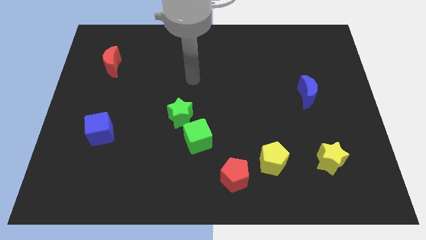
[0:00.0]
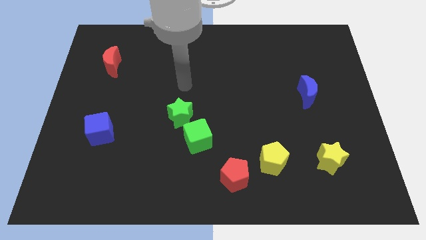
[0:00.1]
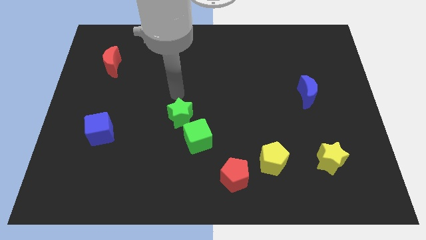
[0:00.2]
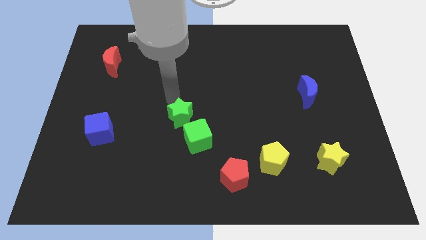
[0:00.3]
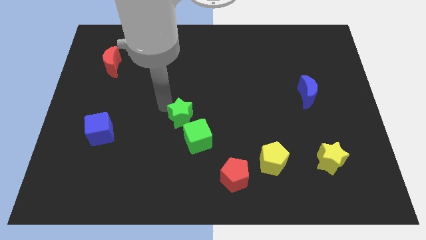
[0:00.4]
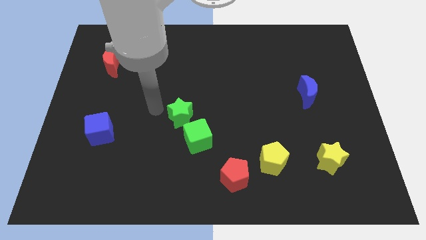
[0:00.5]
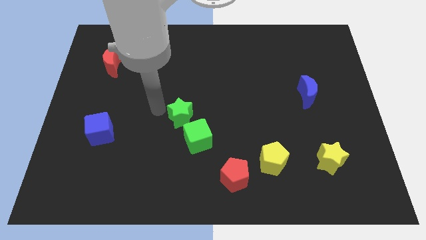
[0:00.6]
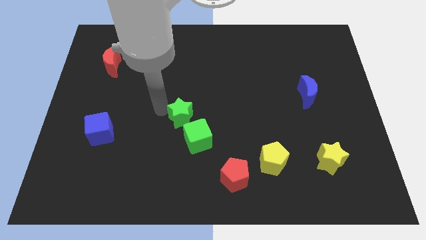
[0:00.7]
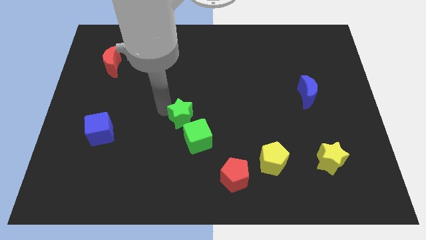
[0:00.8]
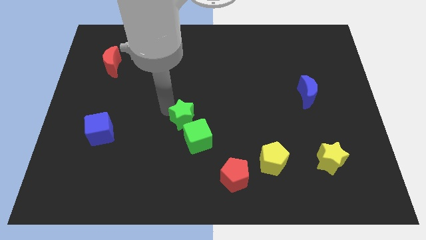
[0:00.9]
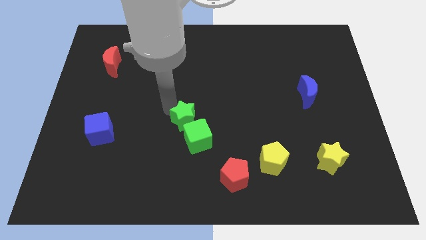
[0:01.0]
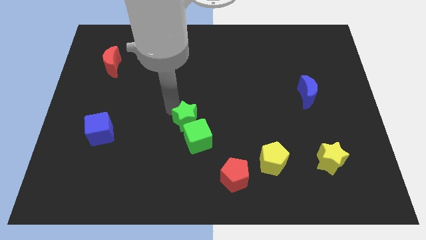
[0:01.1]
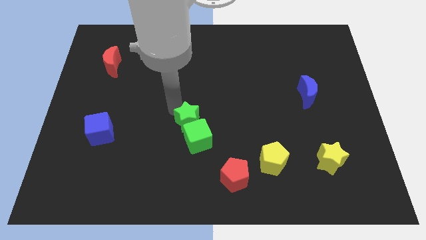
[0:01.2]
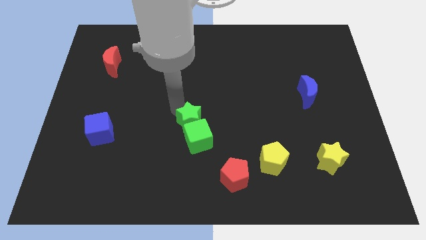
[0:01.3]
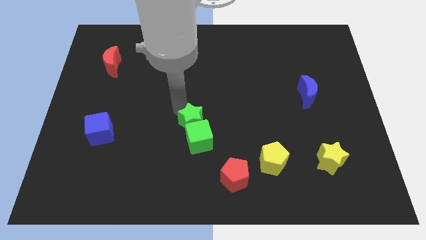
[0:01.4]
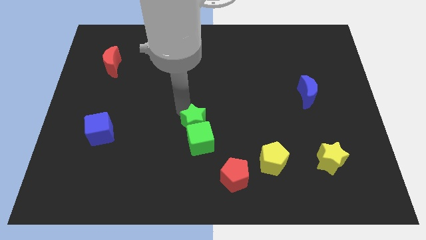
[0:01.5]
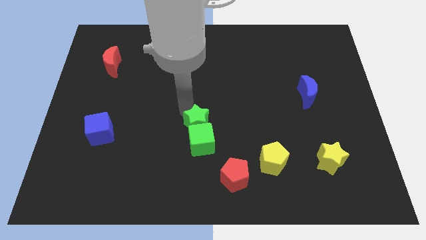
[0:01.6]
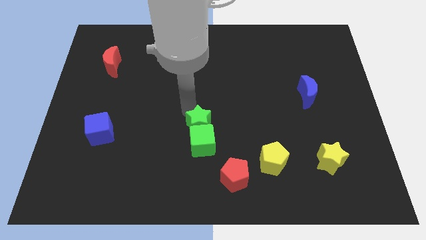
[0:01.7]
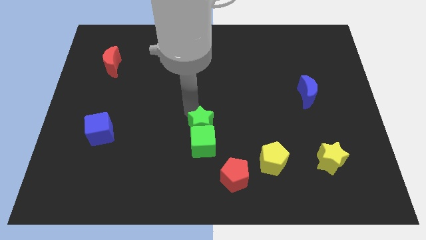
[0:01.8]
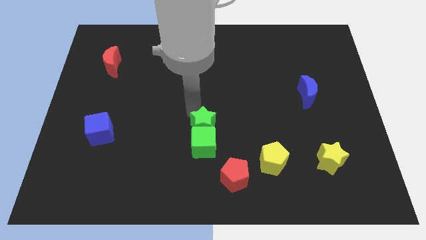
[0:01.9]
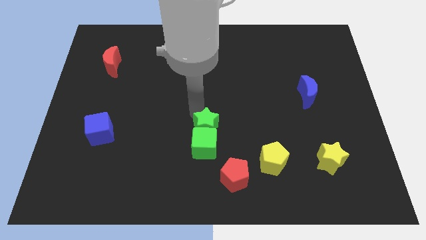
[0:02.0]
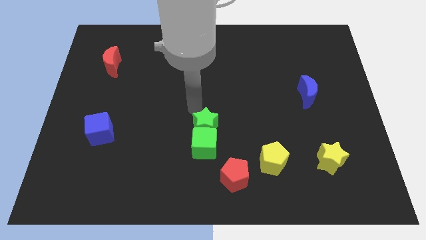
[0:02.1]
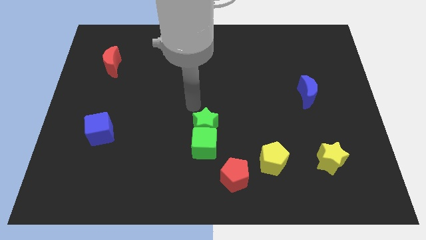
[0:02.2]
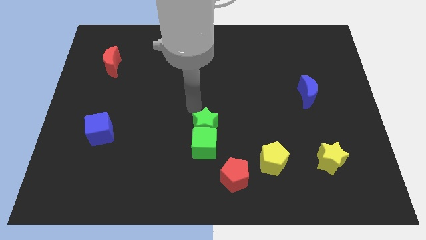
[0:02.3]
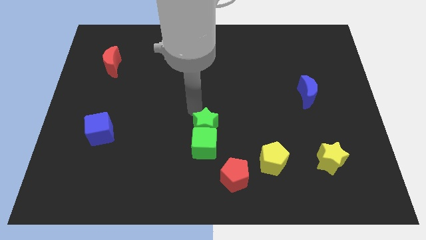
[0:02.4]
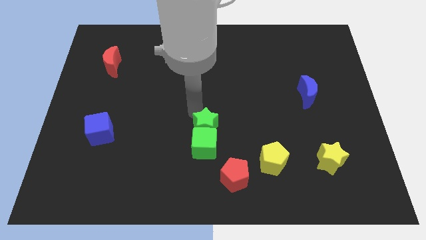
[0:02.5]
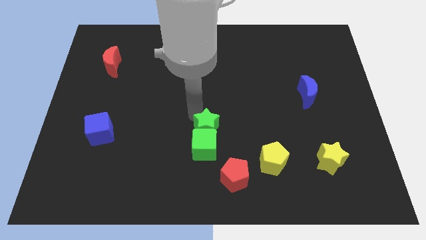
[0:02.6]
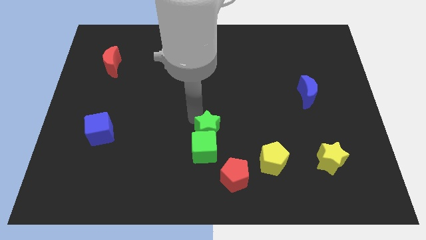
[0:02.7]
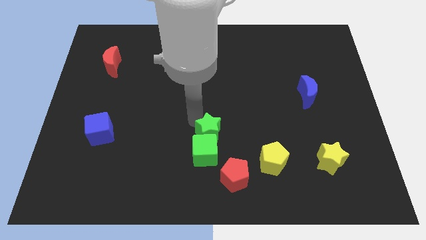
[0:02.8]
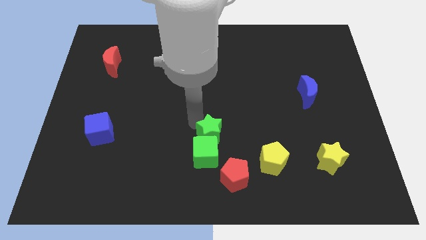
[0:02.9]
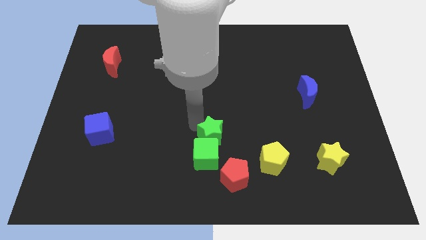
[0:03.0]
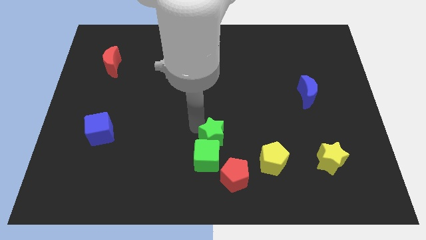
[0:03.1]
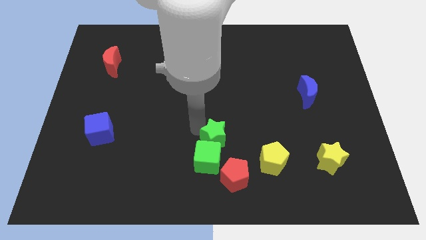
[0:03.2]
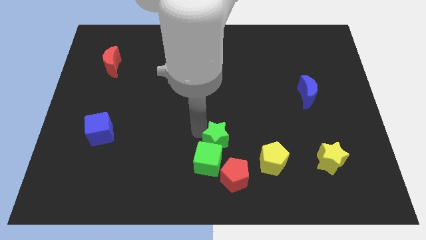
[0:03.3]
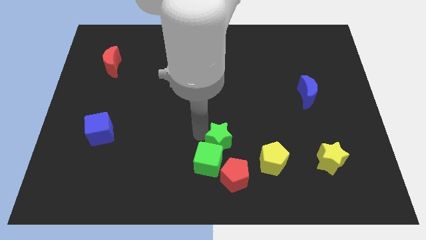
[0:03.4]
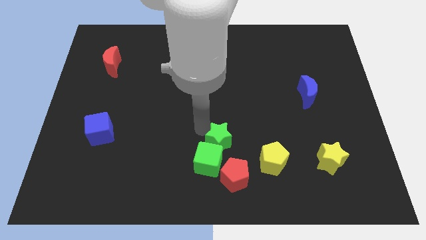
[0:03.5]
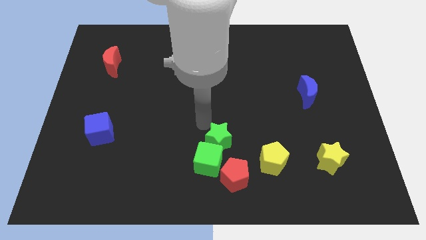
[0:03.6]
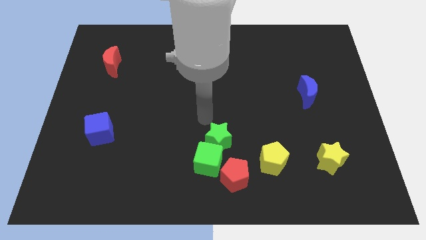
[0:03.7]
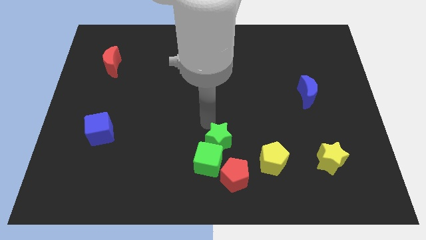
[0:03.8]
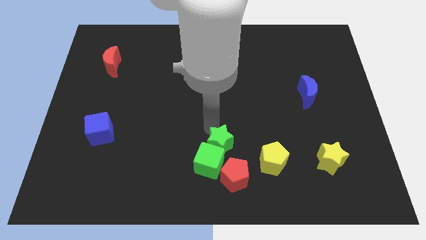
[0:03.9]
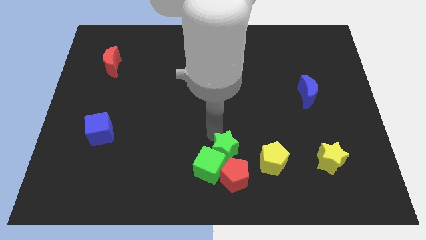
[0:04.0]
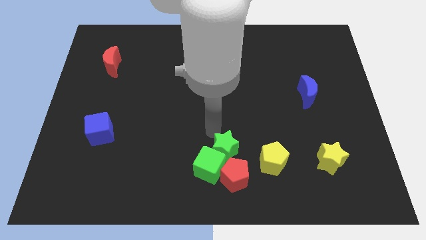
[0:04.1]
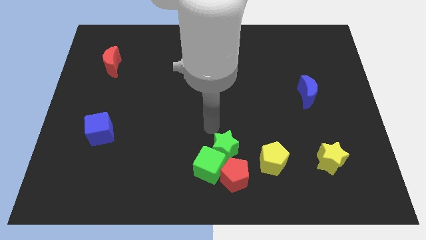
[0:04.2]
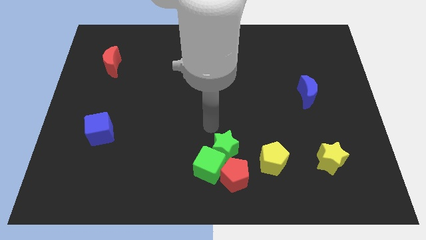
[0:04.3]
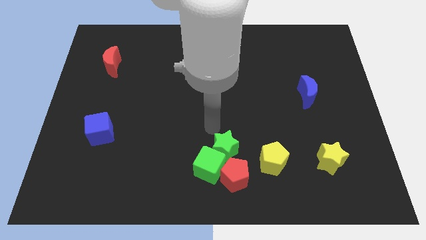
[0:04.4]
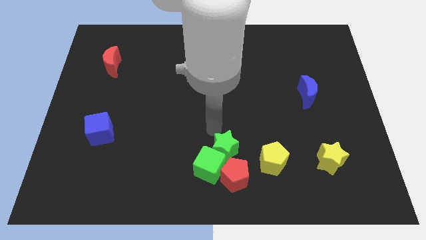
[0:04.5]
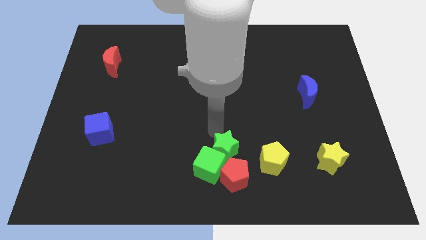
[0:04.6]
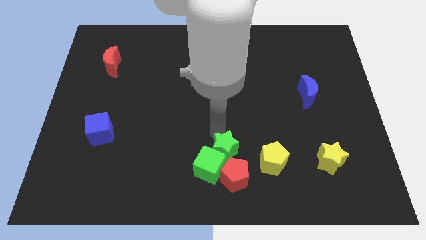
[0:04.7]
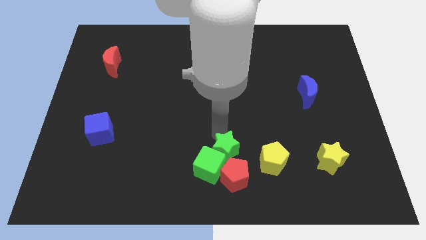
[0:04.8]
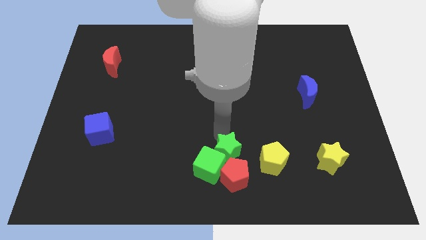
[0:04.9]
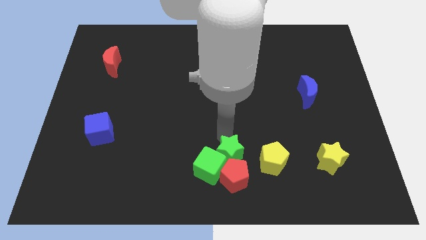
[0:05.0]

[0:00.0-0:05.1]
put the green star towards the red pentagon

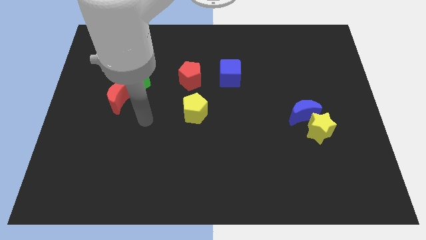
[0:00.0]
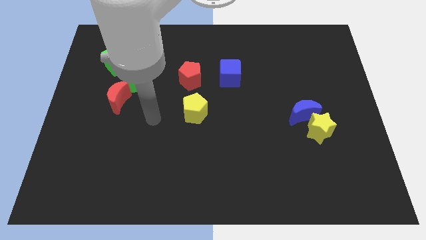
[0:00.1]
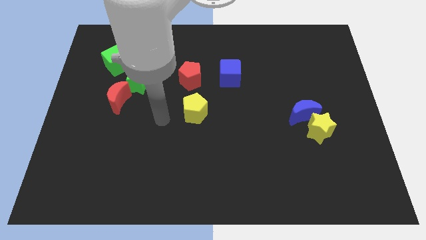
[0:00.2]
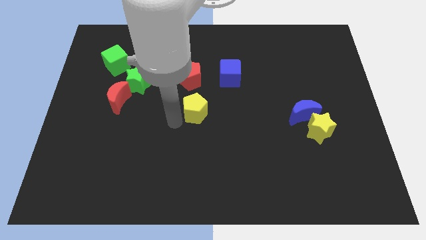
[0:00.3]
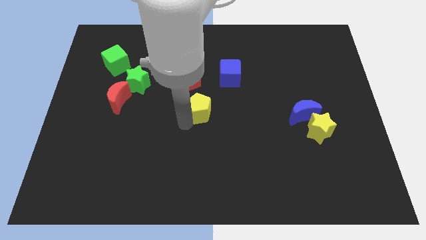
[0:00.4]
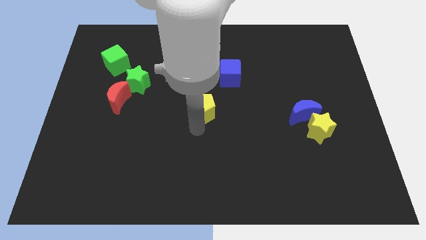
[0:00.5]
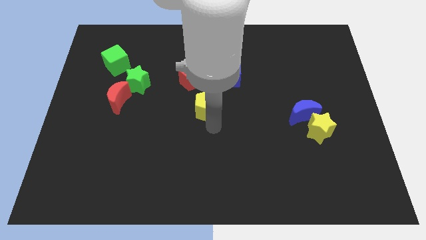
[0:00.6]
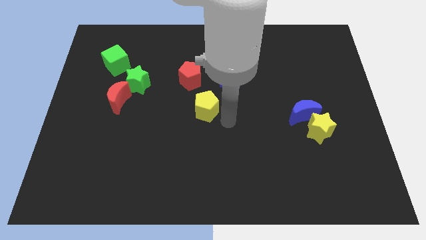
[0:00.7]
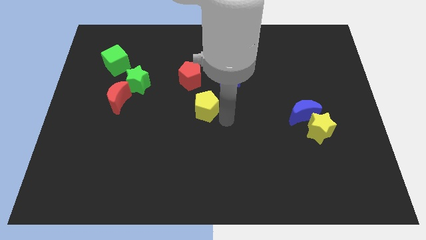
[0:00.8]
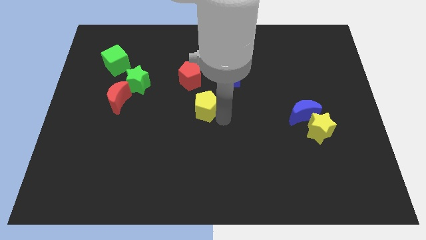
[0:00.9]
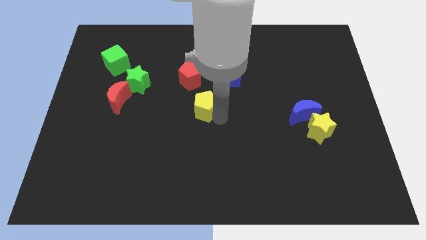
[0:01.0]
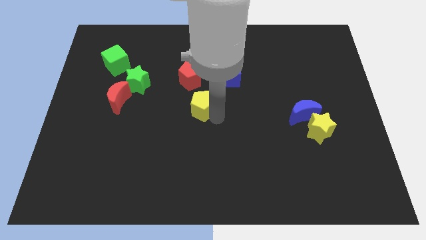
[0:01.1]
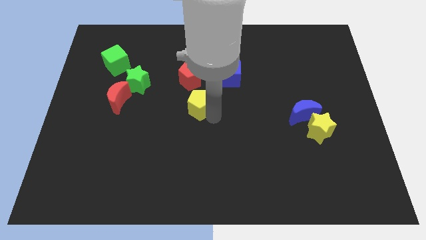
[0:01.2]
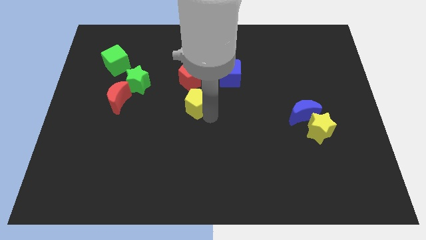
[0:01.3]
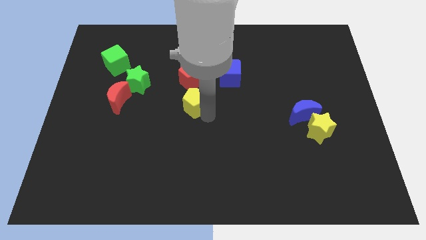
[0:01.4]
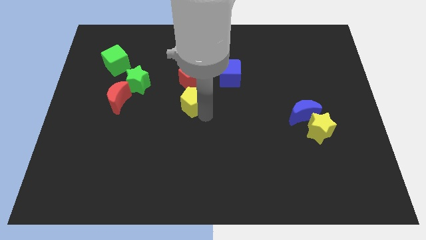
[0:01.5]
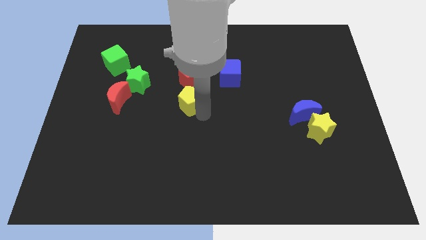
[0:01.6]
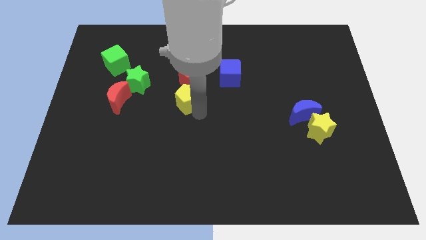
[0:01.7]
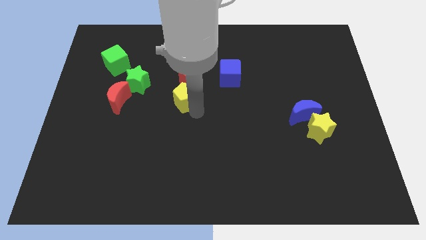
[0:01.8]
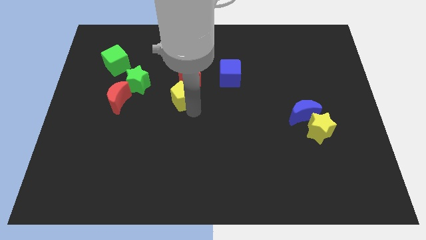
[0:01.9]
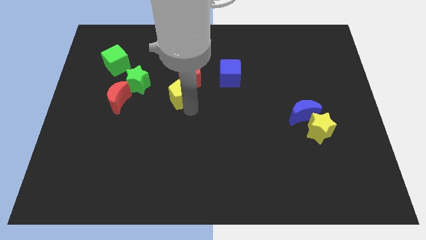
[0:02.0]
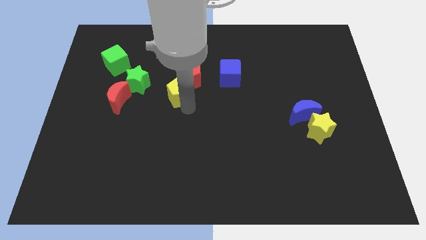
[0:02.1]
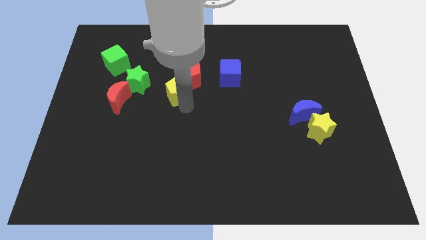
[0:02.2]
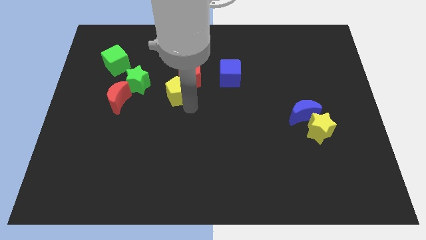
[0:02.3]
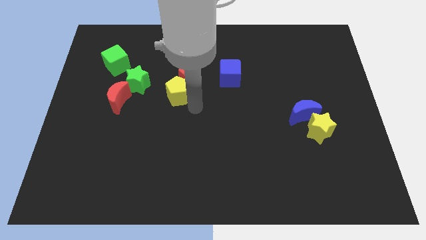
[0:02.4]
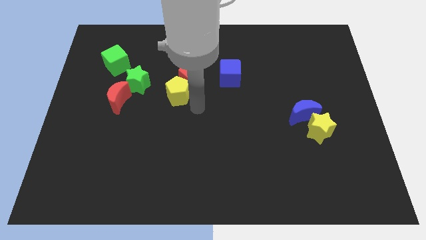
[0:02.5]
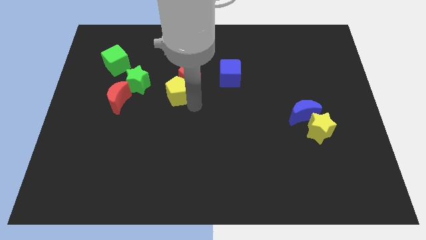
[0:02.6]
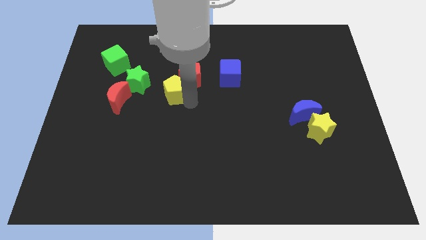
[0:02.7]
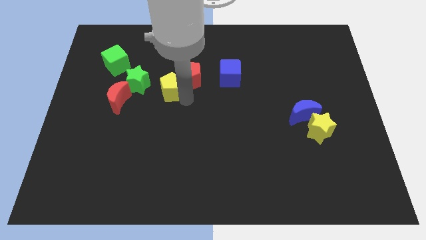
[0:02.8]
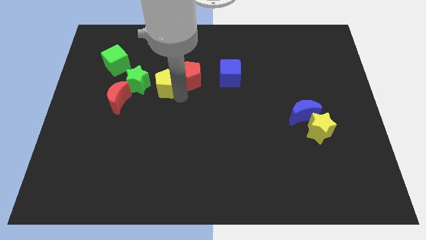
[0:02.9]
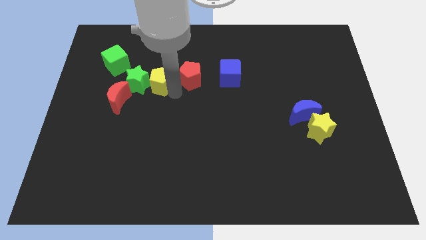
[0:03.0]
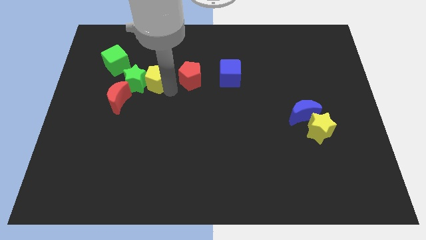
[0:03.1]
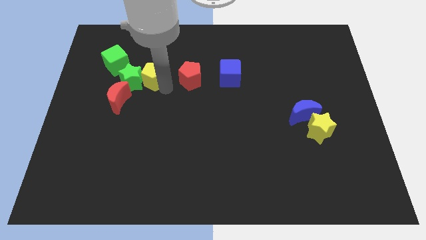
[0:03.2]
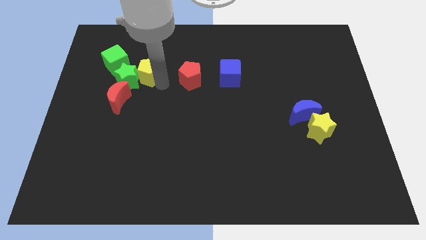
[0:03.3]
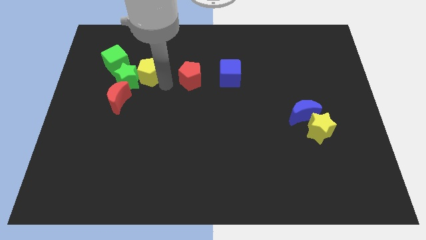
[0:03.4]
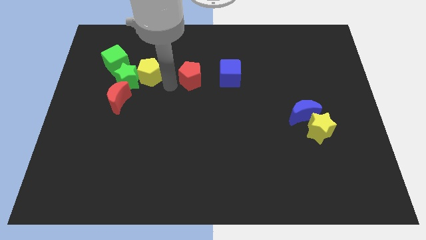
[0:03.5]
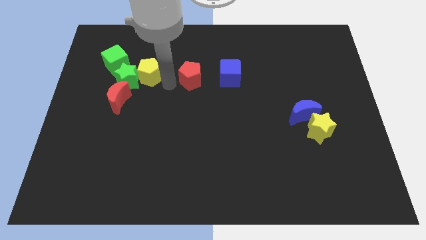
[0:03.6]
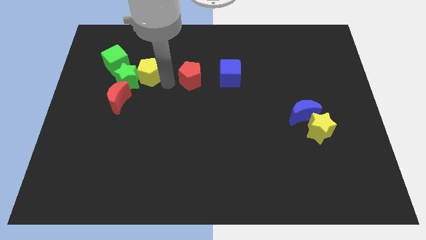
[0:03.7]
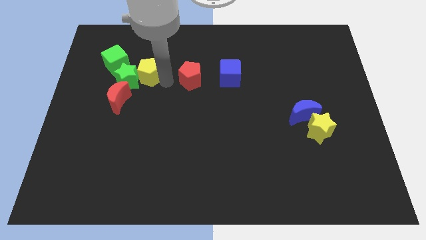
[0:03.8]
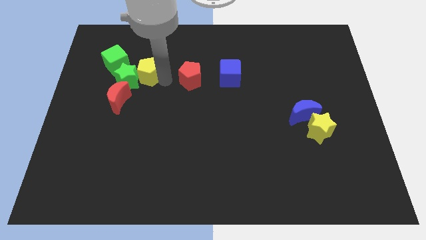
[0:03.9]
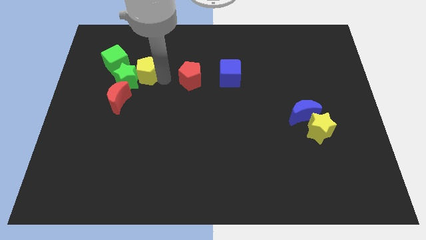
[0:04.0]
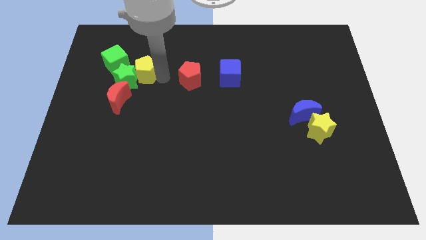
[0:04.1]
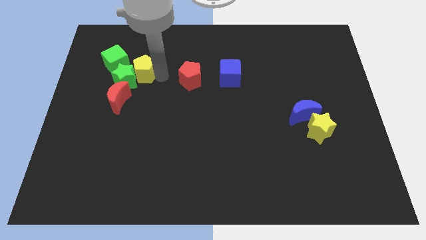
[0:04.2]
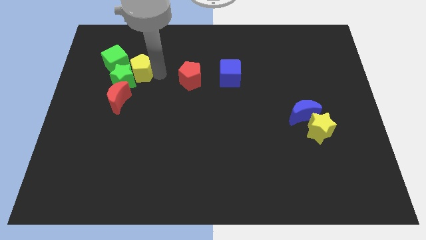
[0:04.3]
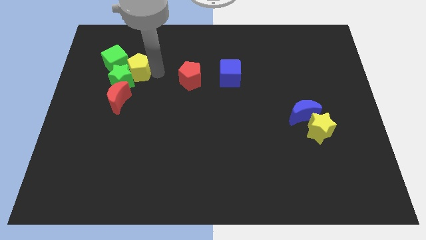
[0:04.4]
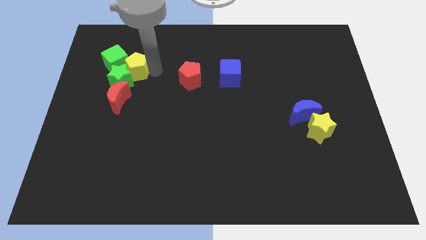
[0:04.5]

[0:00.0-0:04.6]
move the yellow pentagon next to the green cube
